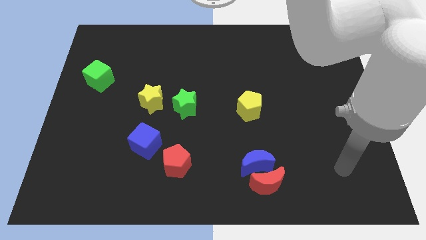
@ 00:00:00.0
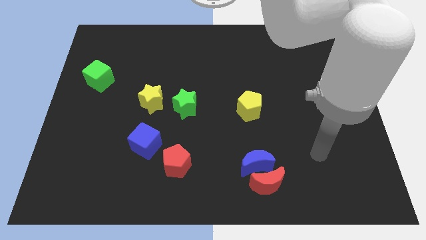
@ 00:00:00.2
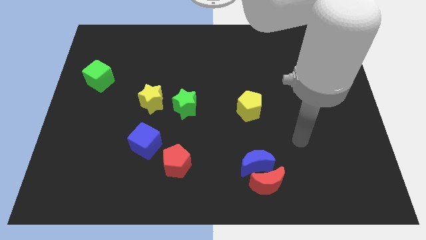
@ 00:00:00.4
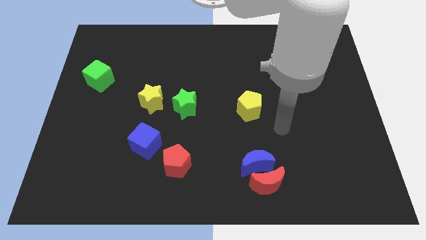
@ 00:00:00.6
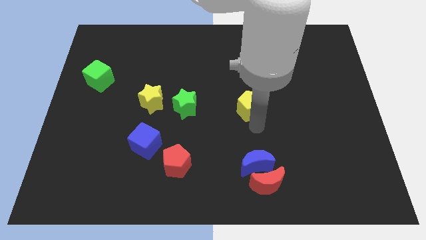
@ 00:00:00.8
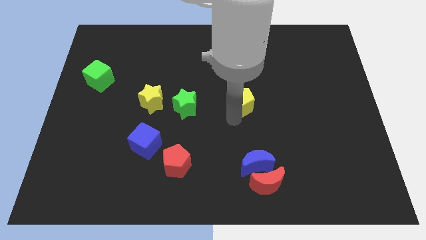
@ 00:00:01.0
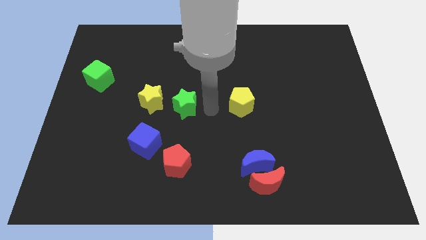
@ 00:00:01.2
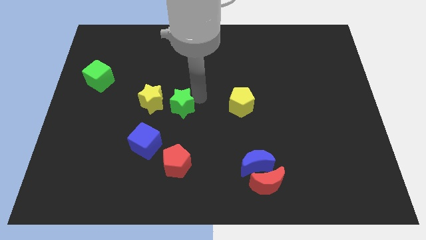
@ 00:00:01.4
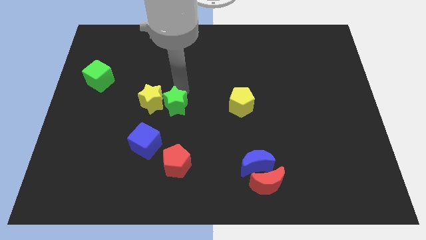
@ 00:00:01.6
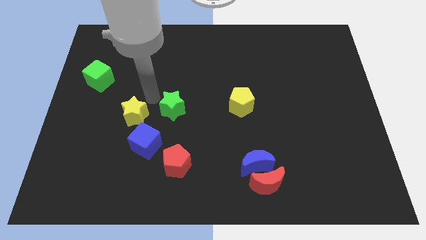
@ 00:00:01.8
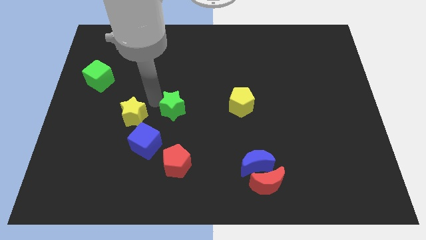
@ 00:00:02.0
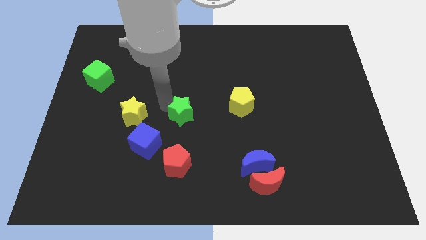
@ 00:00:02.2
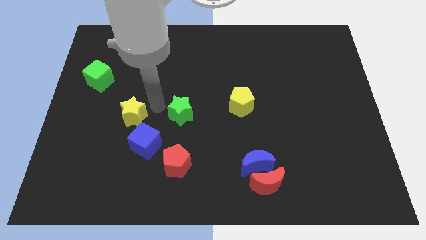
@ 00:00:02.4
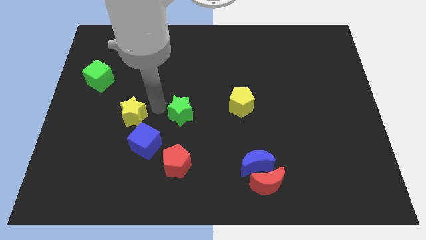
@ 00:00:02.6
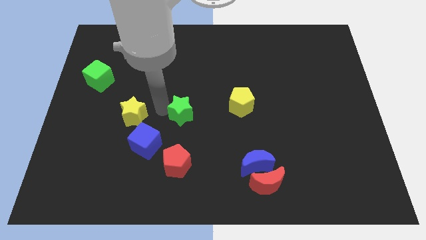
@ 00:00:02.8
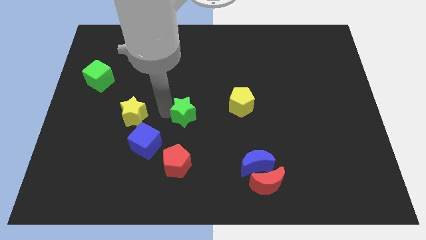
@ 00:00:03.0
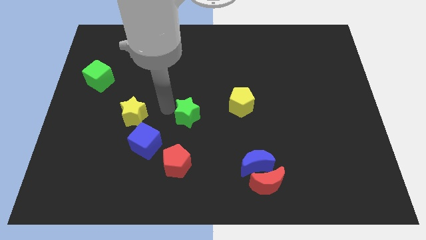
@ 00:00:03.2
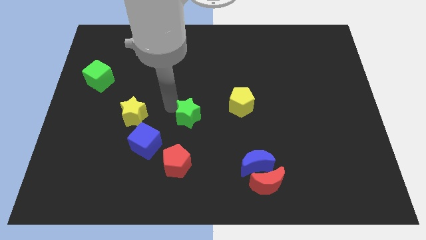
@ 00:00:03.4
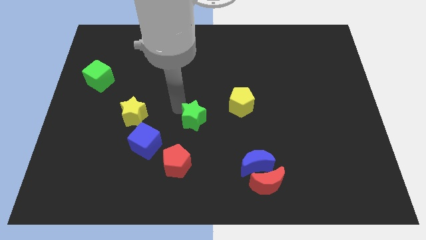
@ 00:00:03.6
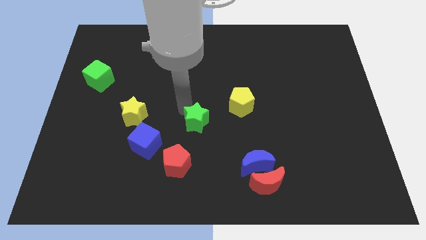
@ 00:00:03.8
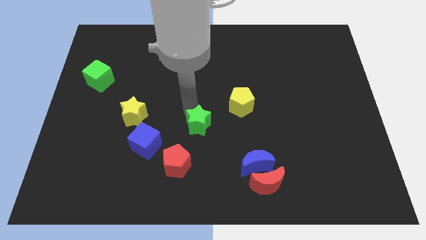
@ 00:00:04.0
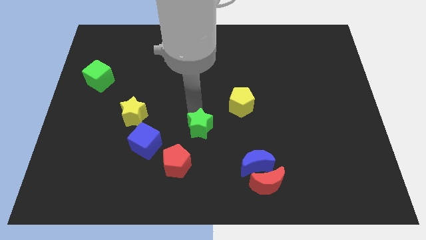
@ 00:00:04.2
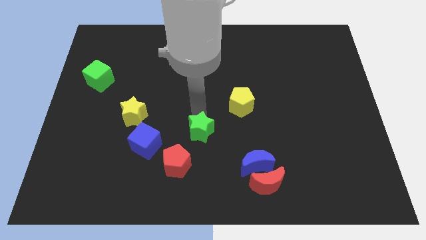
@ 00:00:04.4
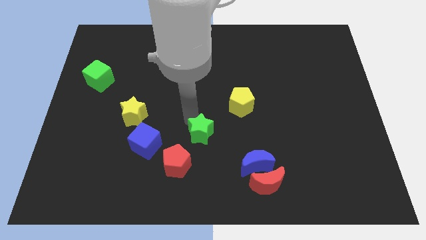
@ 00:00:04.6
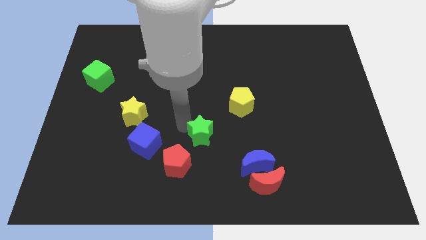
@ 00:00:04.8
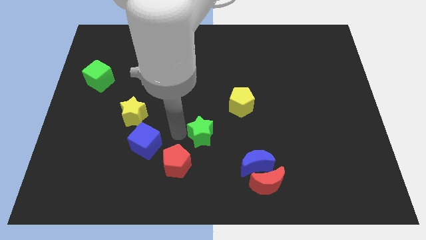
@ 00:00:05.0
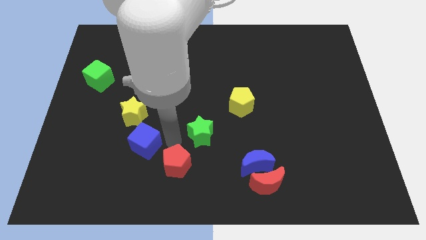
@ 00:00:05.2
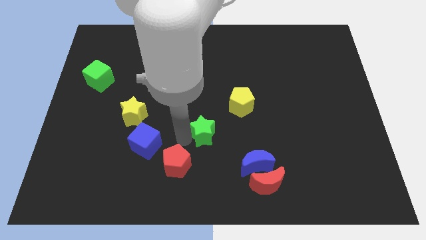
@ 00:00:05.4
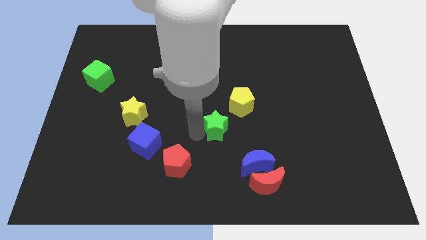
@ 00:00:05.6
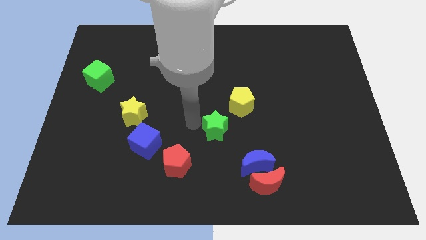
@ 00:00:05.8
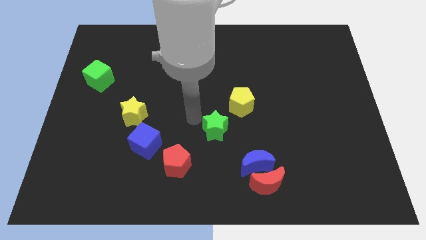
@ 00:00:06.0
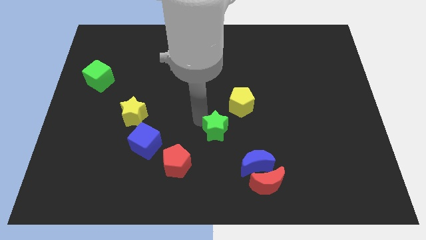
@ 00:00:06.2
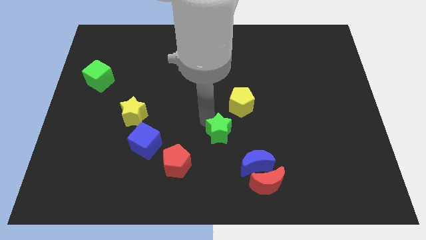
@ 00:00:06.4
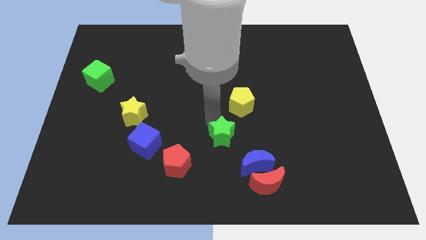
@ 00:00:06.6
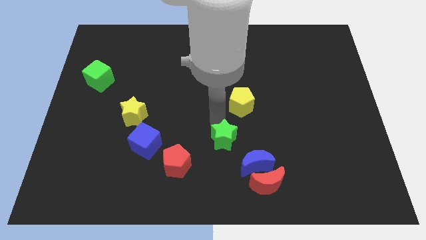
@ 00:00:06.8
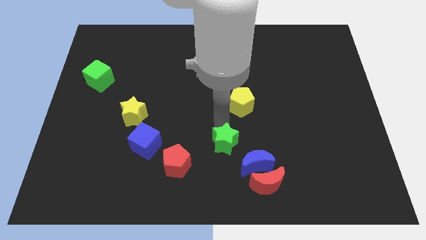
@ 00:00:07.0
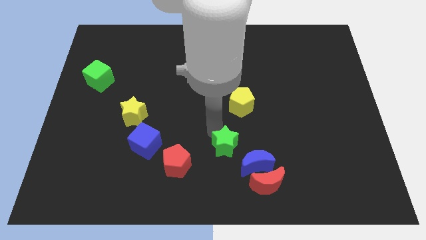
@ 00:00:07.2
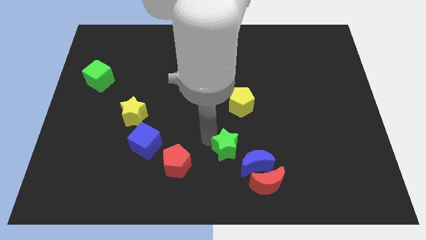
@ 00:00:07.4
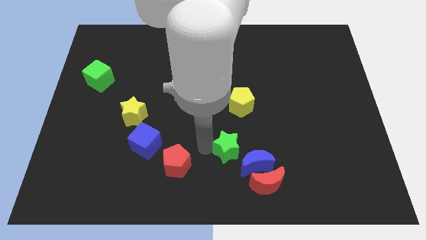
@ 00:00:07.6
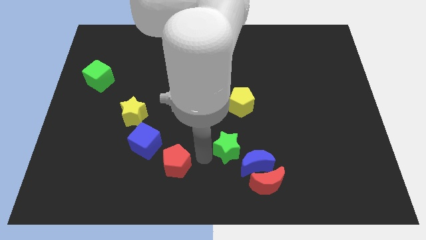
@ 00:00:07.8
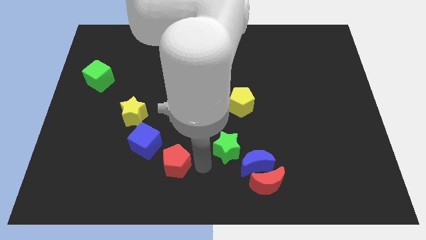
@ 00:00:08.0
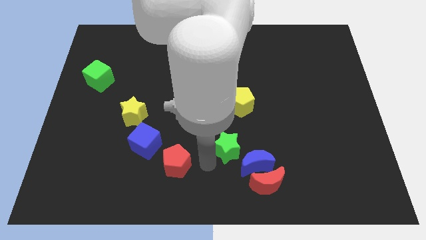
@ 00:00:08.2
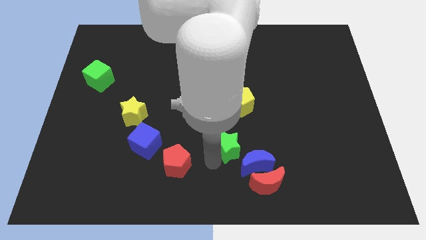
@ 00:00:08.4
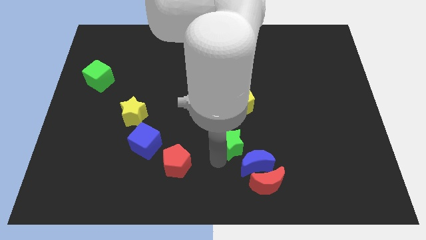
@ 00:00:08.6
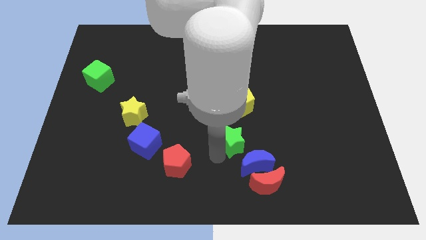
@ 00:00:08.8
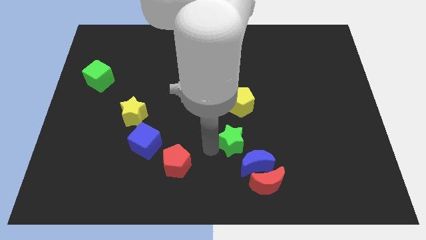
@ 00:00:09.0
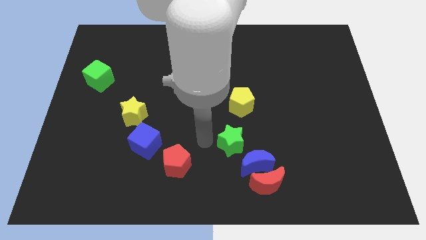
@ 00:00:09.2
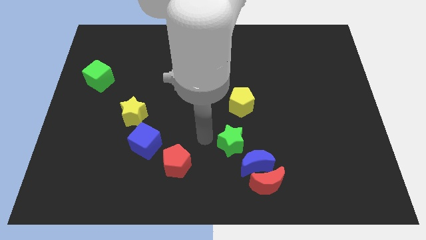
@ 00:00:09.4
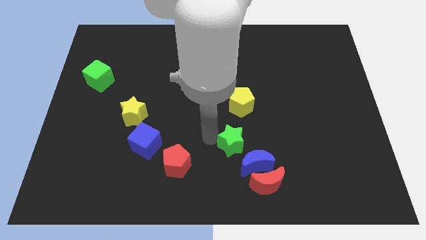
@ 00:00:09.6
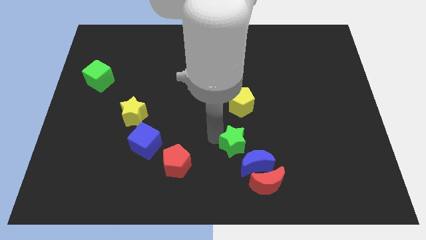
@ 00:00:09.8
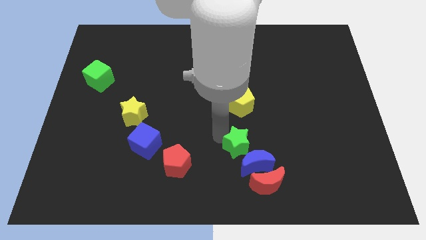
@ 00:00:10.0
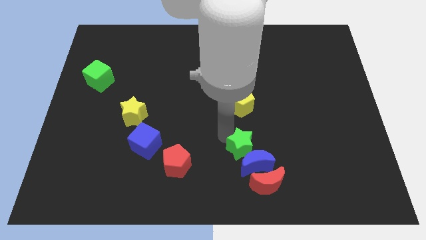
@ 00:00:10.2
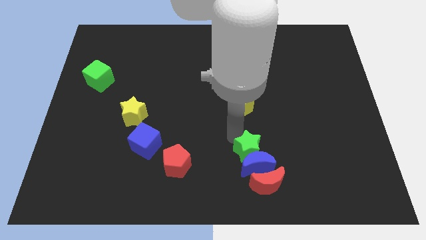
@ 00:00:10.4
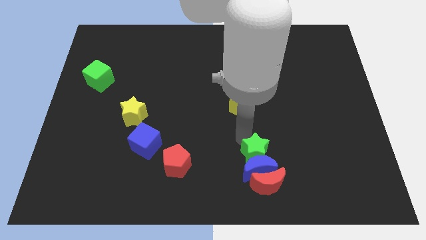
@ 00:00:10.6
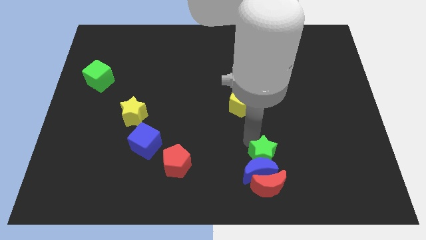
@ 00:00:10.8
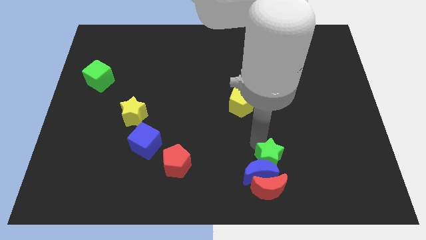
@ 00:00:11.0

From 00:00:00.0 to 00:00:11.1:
slide the green star diagonally up and to the right of the red moon

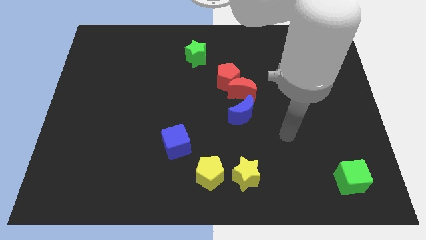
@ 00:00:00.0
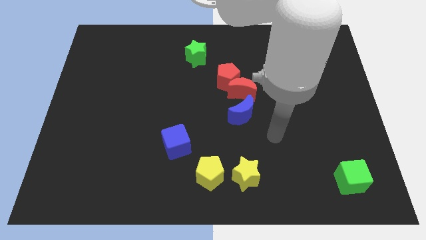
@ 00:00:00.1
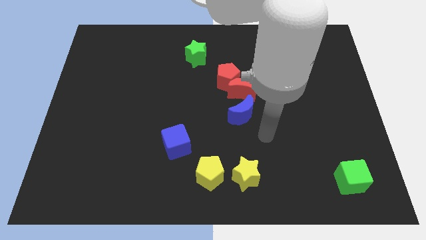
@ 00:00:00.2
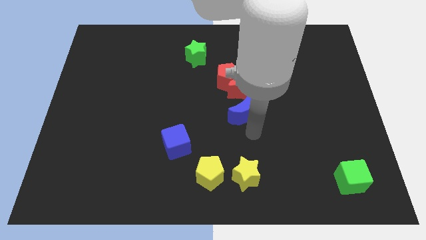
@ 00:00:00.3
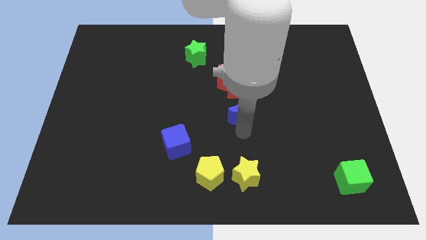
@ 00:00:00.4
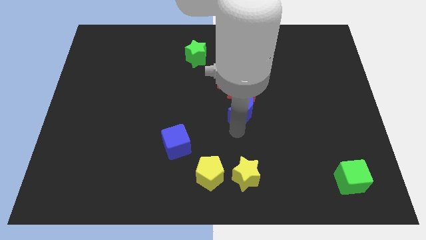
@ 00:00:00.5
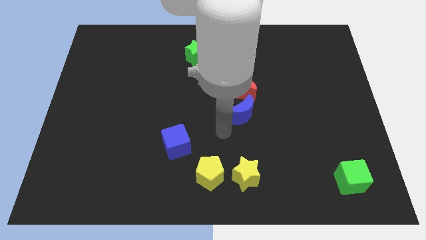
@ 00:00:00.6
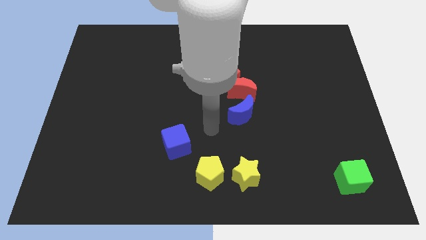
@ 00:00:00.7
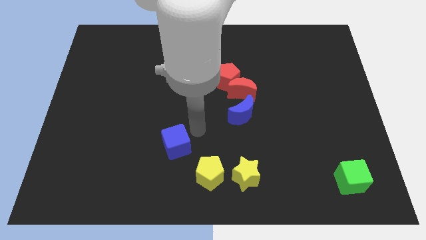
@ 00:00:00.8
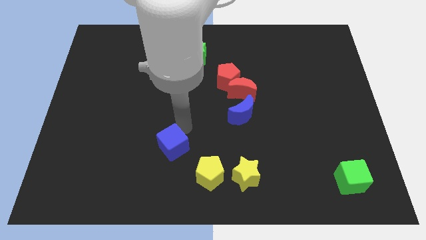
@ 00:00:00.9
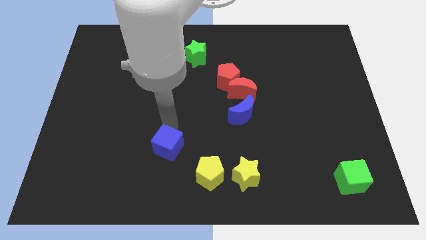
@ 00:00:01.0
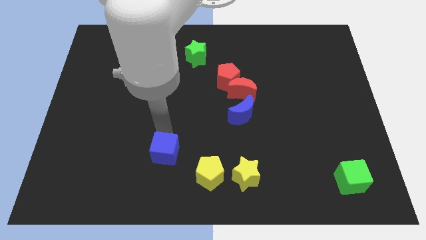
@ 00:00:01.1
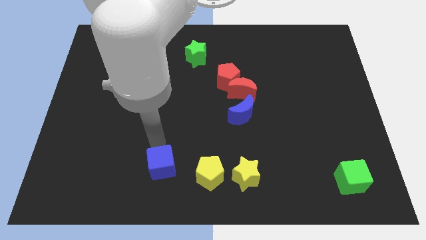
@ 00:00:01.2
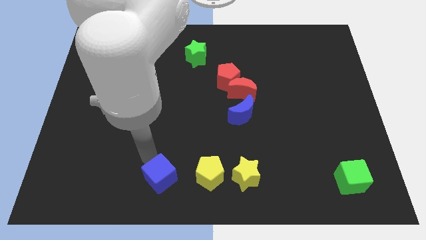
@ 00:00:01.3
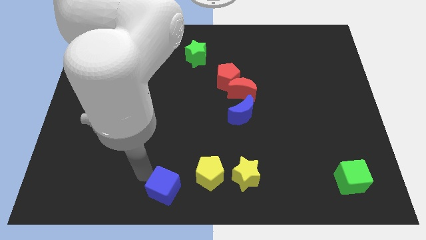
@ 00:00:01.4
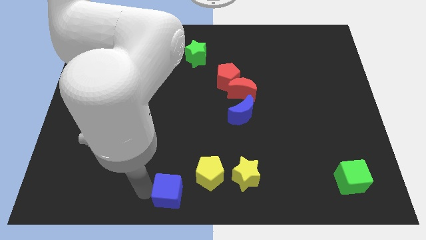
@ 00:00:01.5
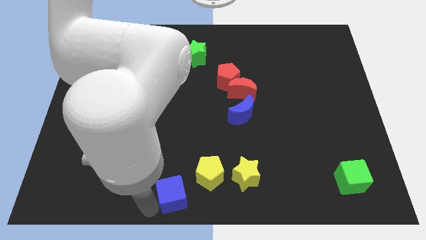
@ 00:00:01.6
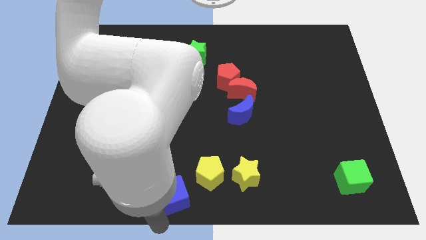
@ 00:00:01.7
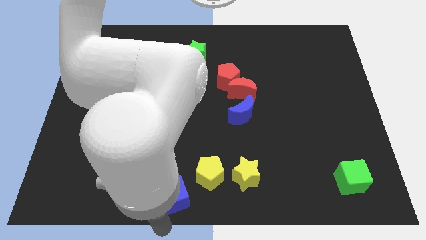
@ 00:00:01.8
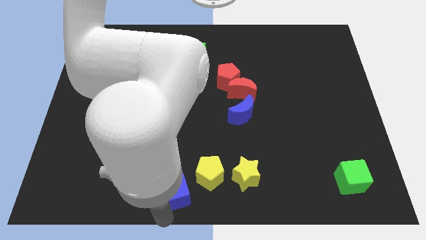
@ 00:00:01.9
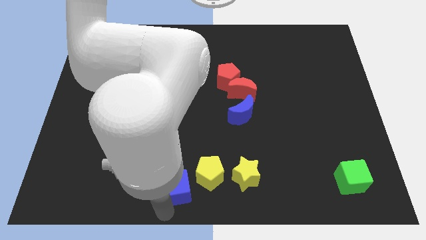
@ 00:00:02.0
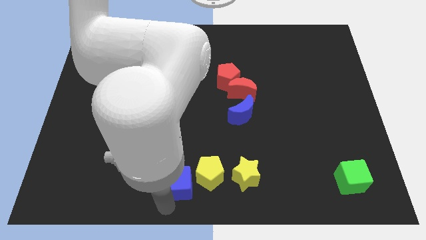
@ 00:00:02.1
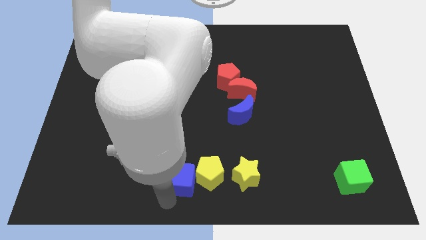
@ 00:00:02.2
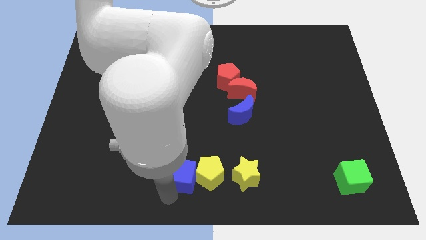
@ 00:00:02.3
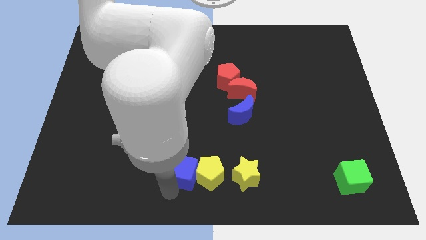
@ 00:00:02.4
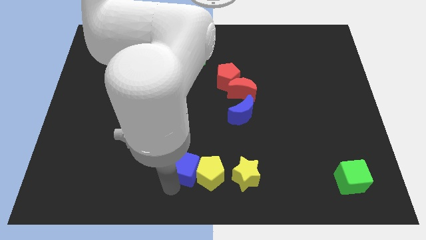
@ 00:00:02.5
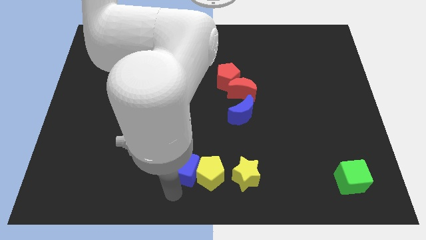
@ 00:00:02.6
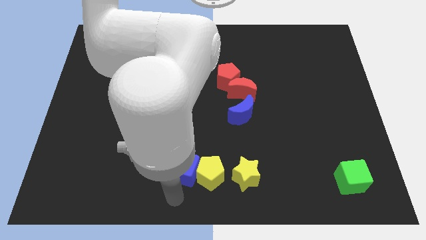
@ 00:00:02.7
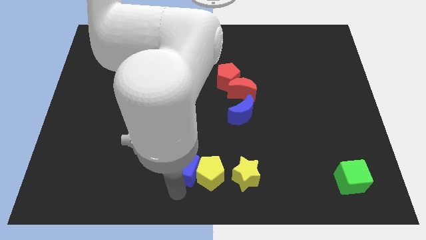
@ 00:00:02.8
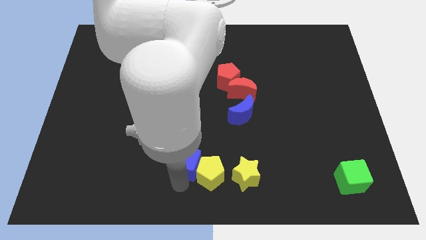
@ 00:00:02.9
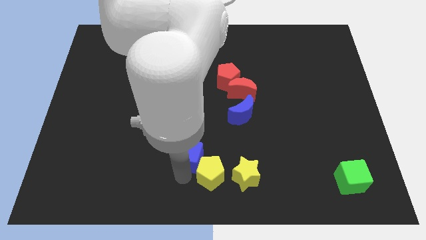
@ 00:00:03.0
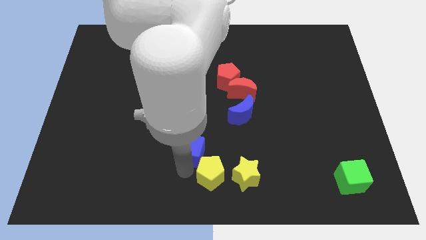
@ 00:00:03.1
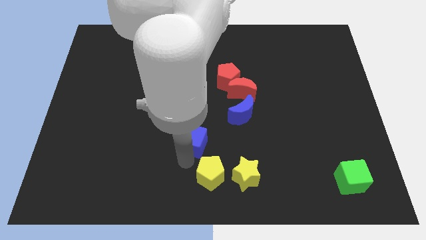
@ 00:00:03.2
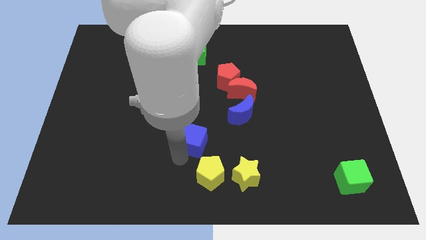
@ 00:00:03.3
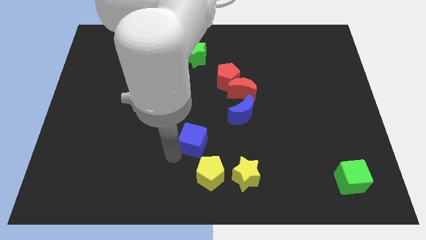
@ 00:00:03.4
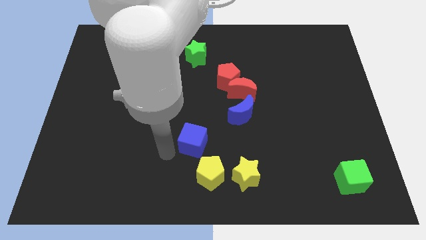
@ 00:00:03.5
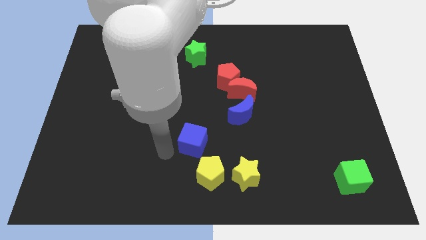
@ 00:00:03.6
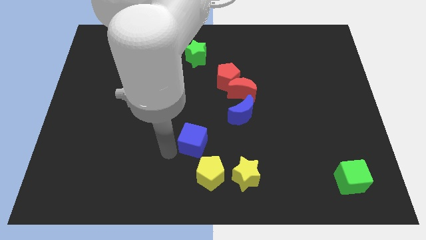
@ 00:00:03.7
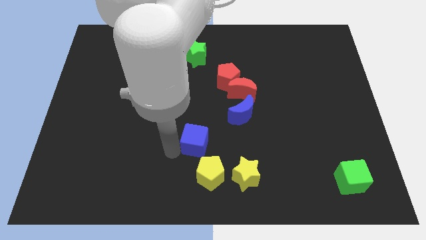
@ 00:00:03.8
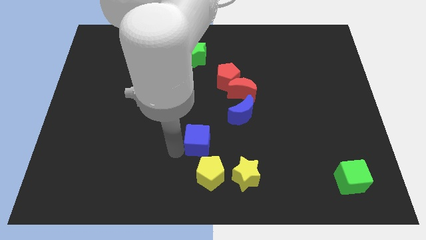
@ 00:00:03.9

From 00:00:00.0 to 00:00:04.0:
push the blue cube to the bottom left of the blue moon
